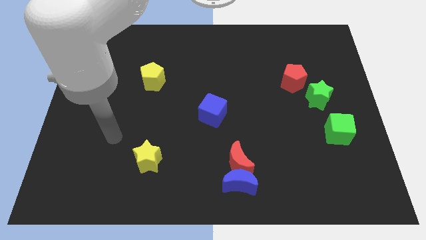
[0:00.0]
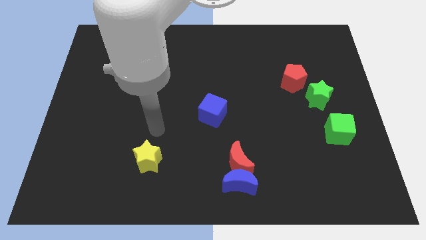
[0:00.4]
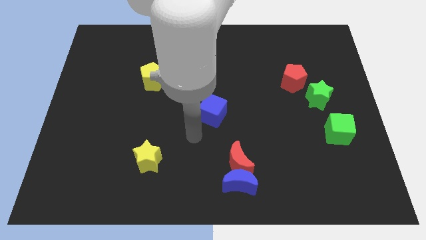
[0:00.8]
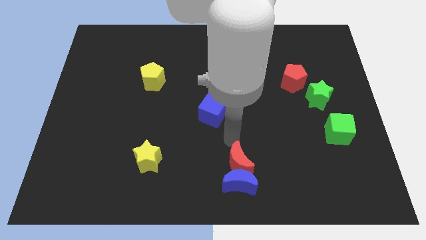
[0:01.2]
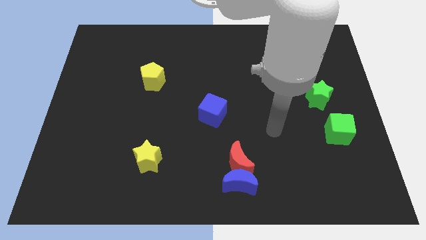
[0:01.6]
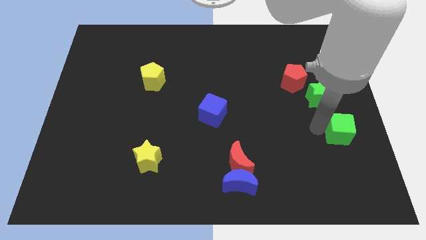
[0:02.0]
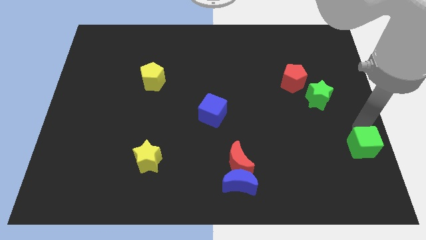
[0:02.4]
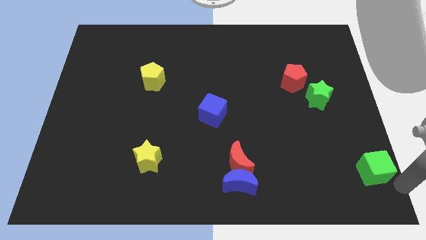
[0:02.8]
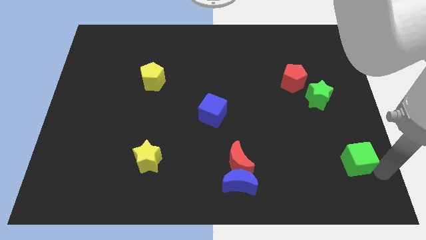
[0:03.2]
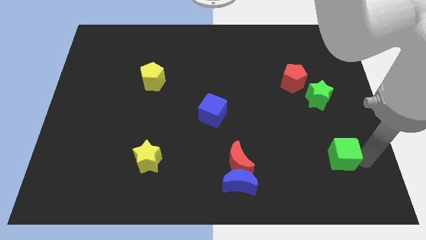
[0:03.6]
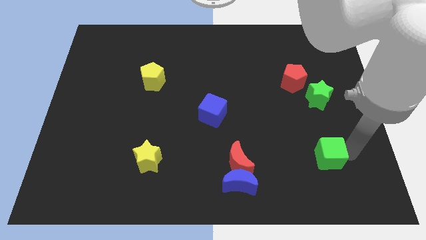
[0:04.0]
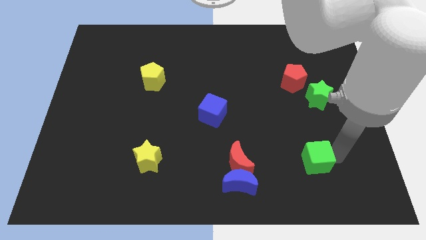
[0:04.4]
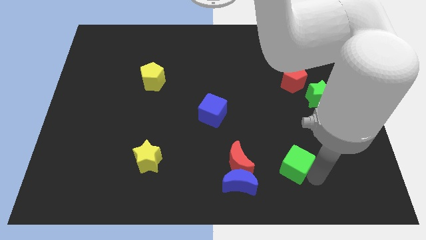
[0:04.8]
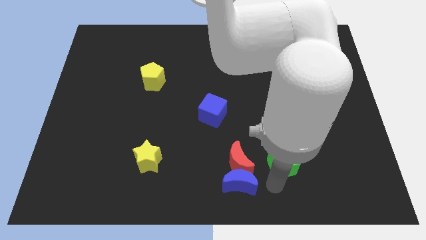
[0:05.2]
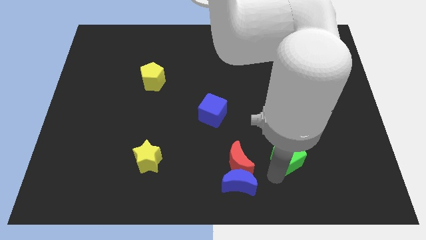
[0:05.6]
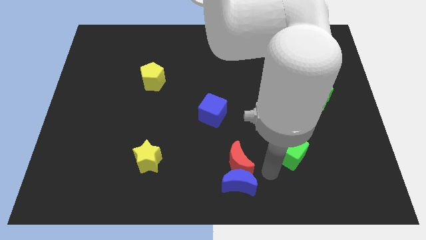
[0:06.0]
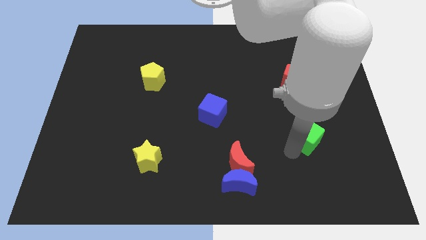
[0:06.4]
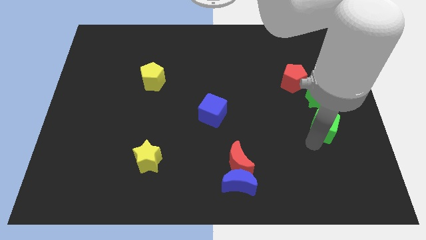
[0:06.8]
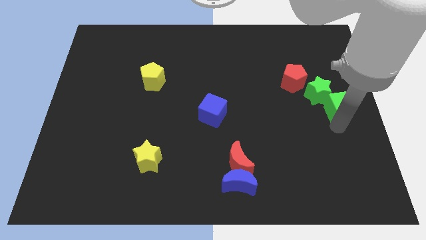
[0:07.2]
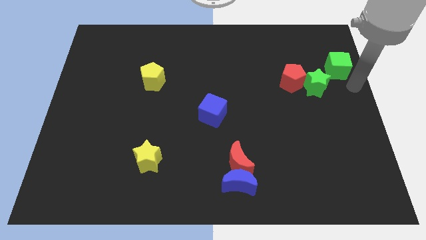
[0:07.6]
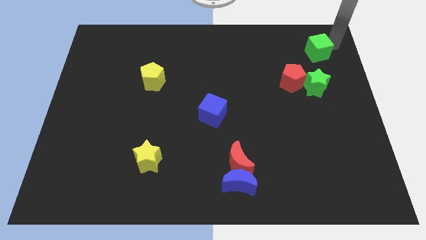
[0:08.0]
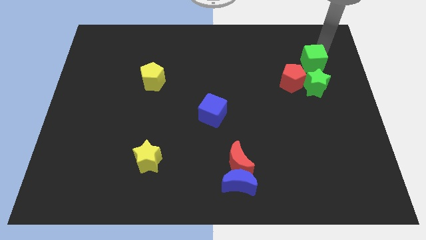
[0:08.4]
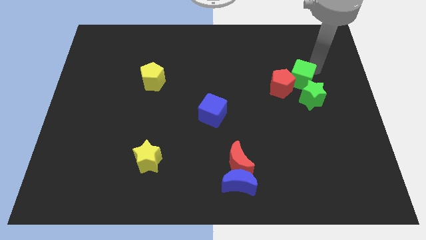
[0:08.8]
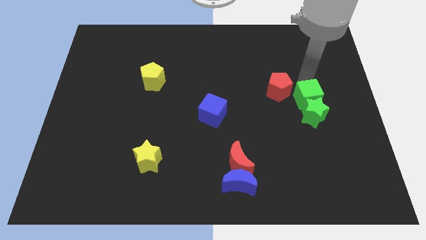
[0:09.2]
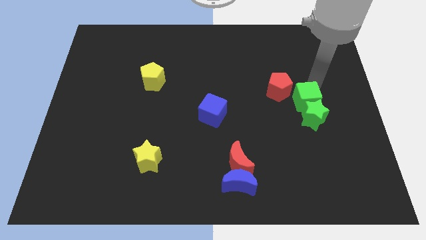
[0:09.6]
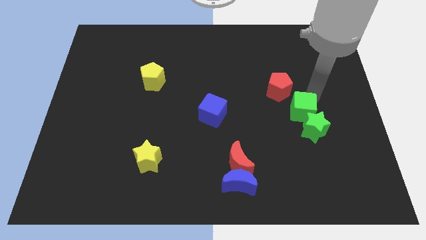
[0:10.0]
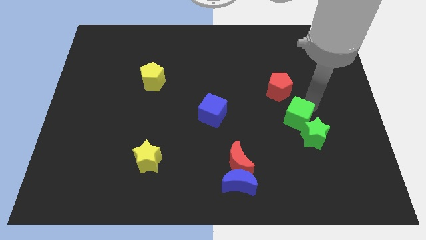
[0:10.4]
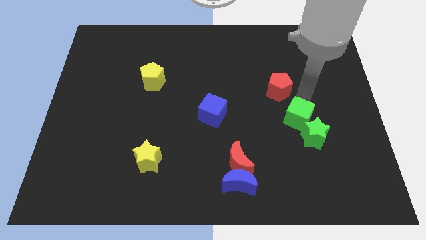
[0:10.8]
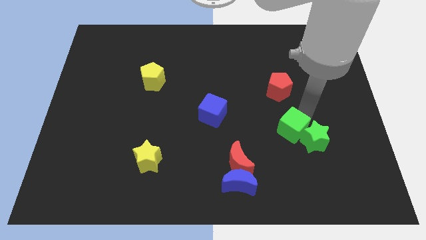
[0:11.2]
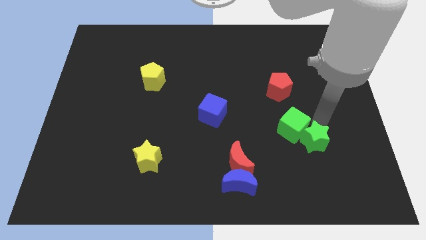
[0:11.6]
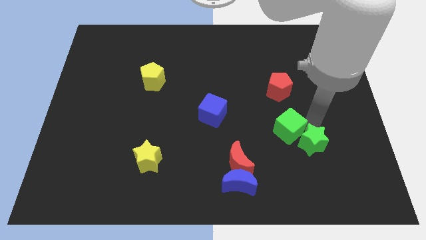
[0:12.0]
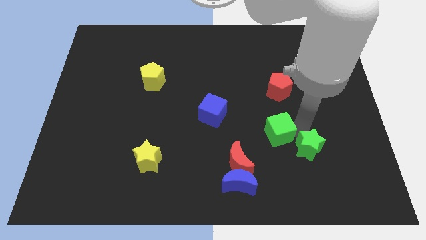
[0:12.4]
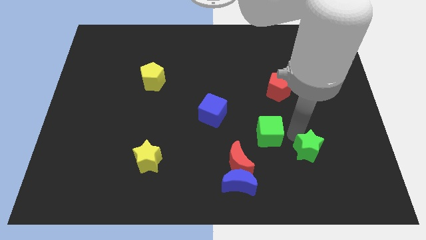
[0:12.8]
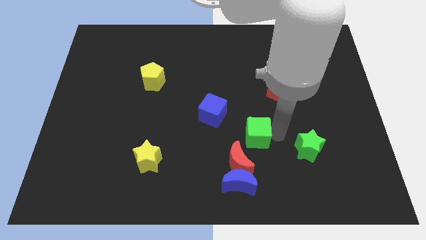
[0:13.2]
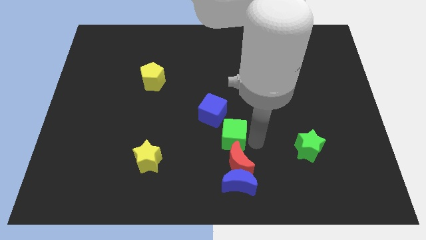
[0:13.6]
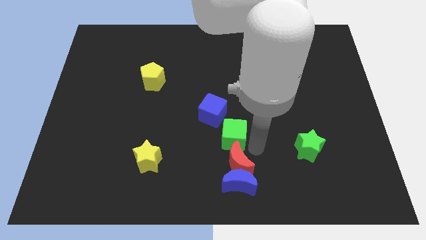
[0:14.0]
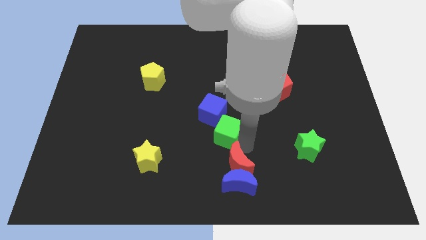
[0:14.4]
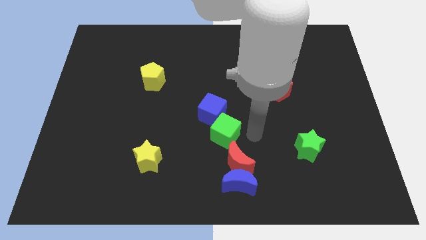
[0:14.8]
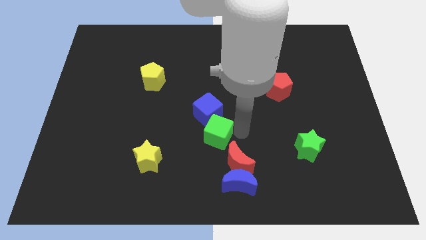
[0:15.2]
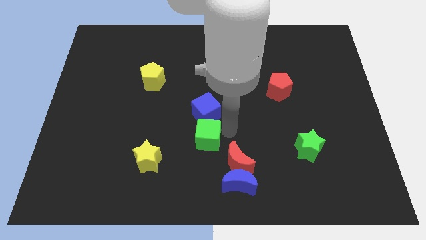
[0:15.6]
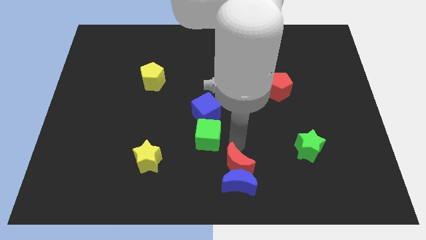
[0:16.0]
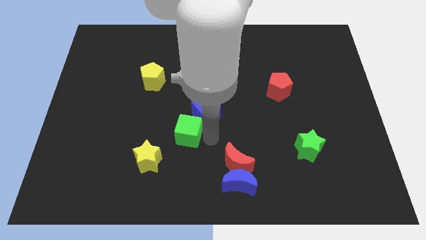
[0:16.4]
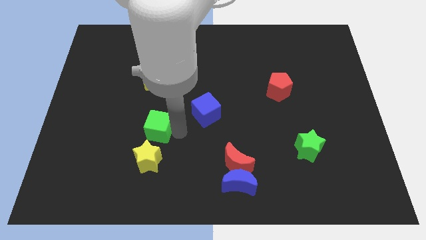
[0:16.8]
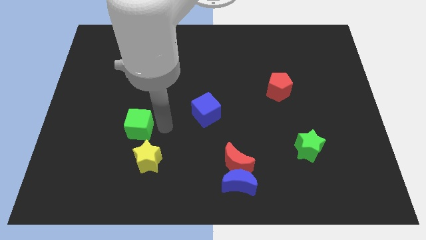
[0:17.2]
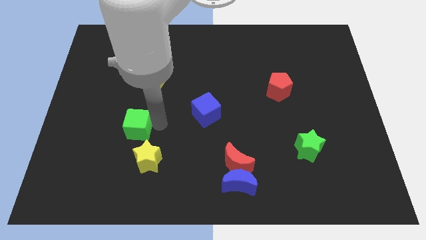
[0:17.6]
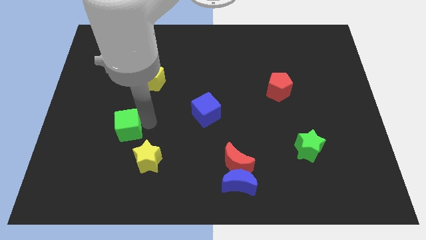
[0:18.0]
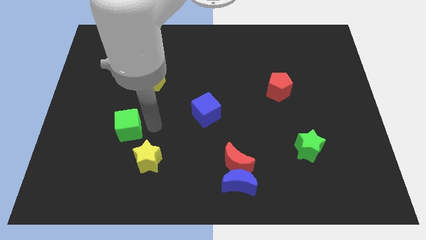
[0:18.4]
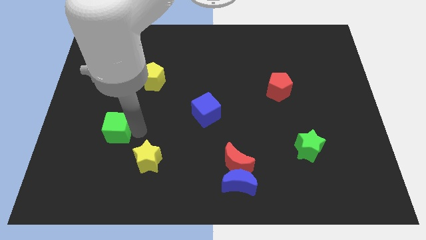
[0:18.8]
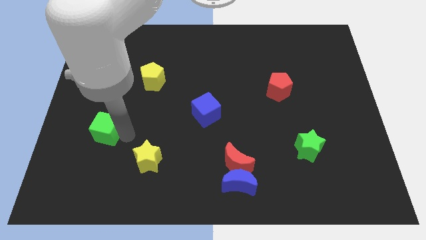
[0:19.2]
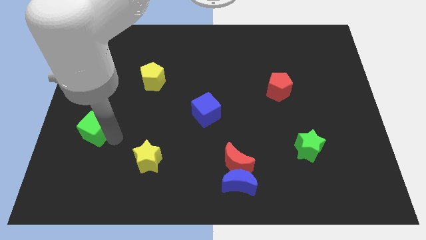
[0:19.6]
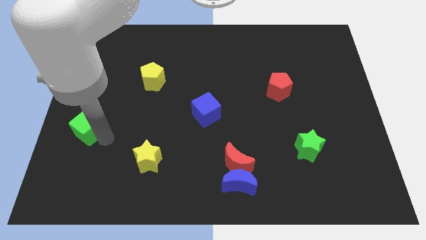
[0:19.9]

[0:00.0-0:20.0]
push the green cube to the left side

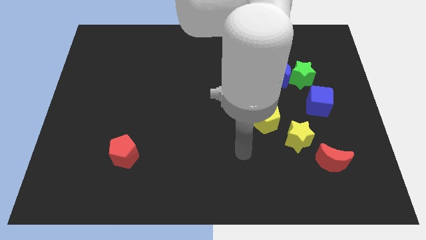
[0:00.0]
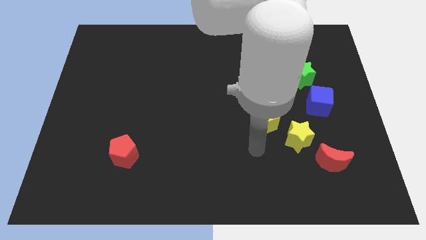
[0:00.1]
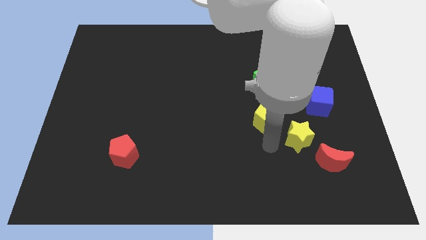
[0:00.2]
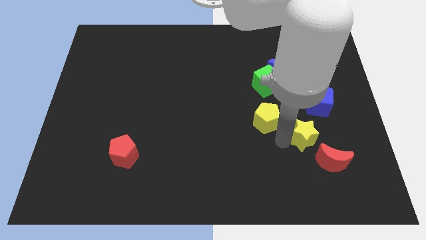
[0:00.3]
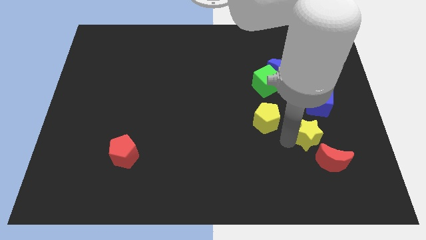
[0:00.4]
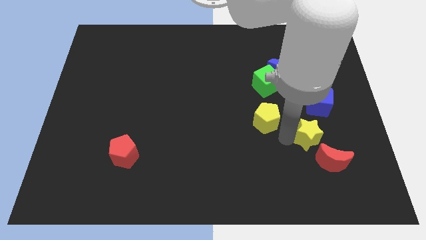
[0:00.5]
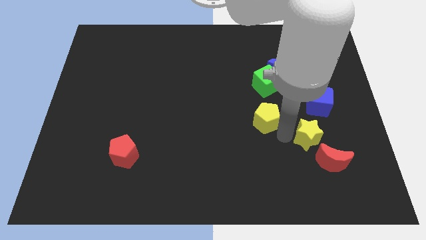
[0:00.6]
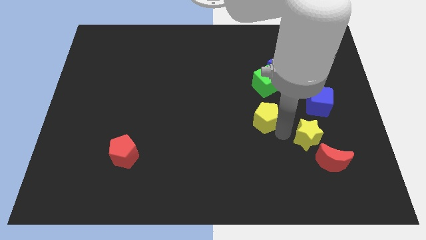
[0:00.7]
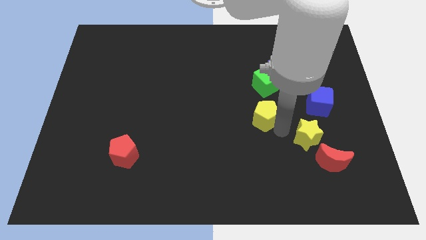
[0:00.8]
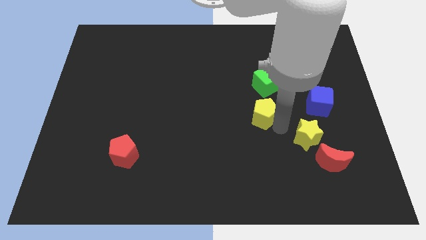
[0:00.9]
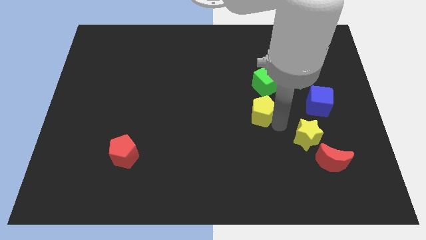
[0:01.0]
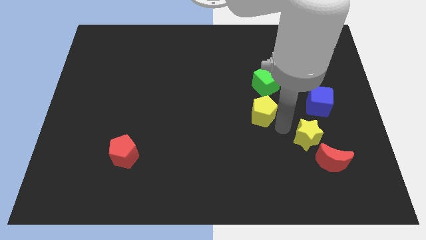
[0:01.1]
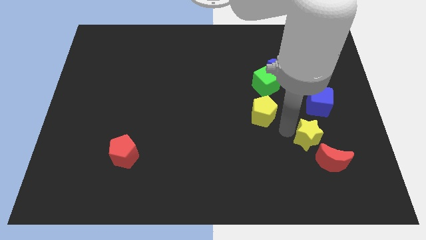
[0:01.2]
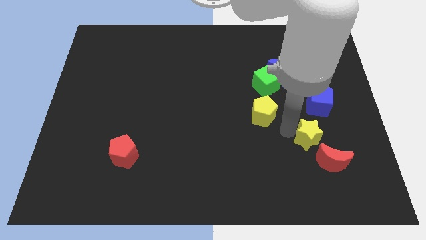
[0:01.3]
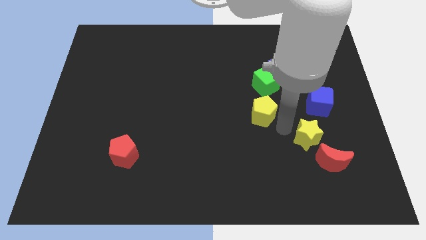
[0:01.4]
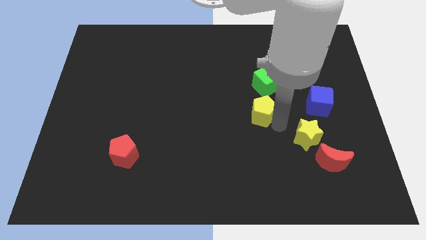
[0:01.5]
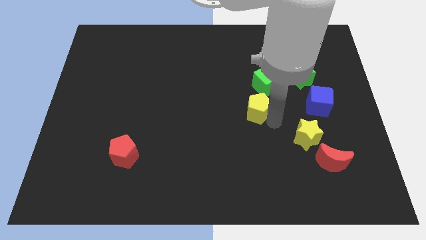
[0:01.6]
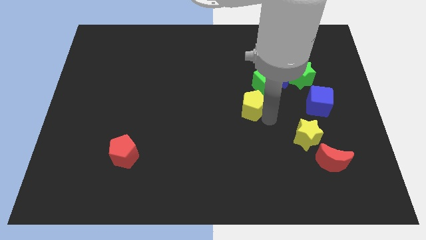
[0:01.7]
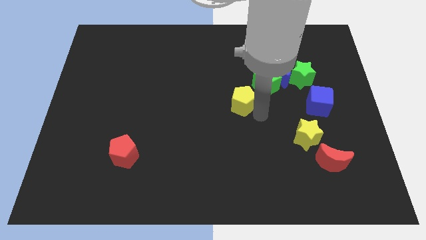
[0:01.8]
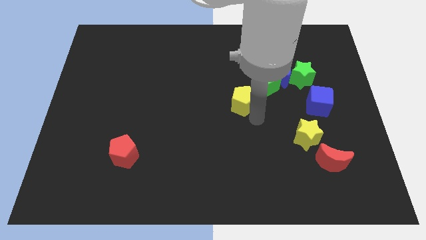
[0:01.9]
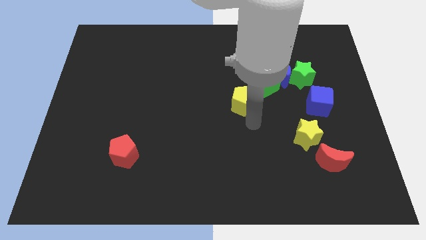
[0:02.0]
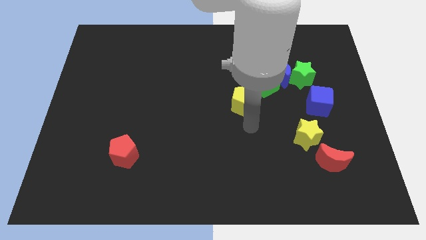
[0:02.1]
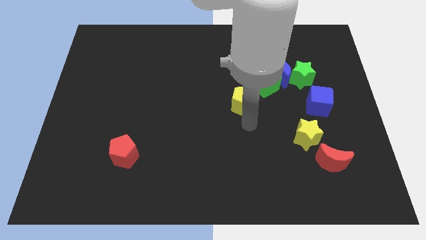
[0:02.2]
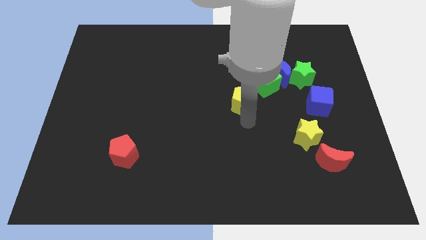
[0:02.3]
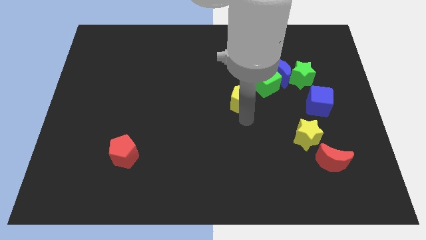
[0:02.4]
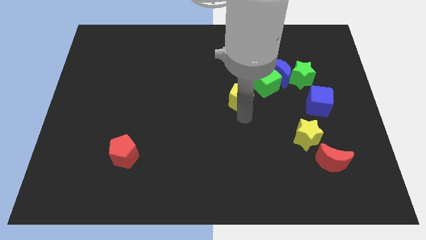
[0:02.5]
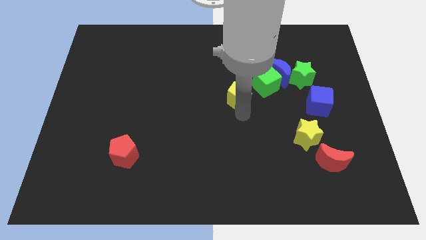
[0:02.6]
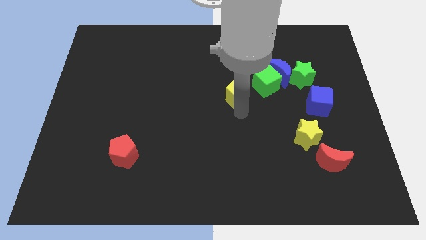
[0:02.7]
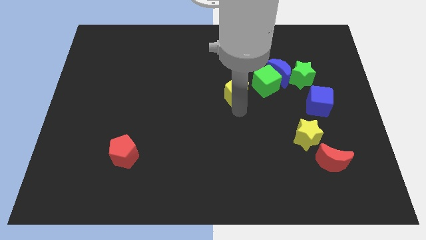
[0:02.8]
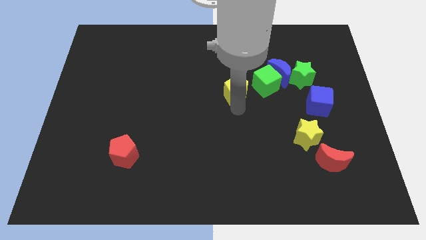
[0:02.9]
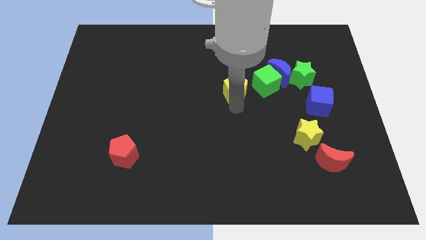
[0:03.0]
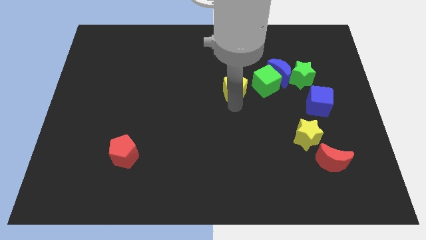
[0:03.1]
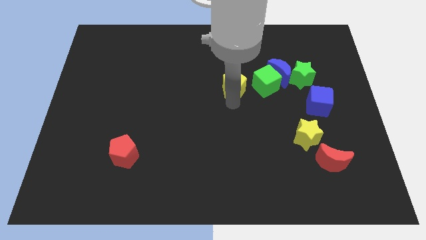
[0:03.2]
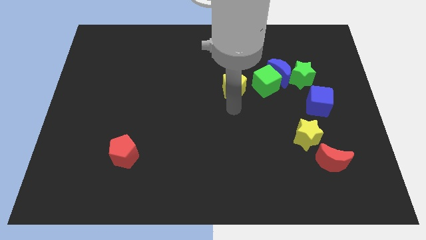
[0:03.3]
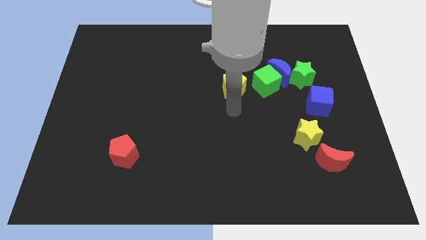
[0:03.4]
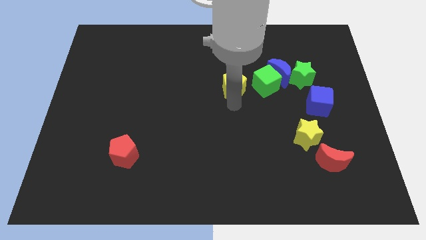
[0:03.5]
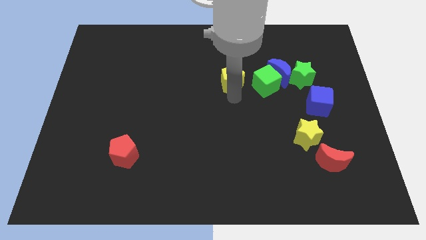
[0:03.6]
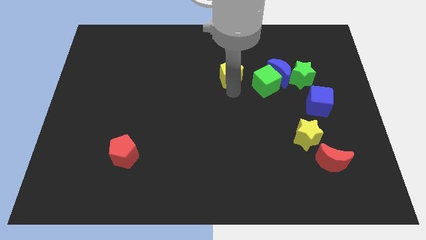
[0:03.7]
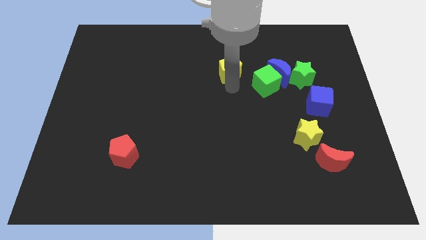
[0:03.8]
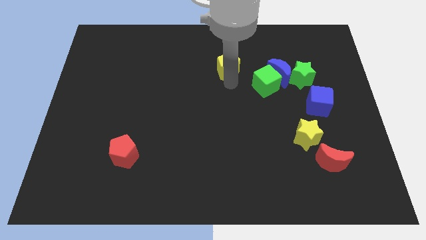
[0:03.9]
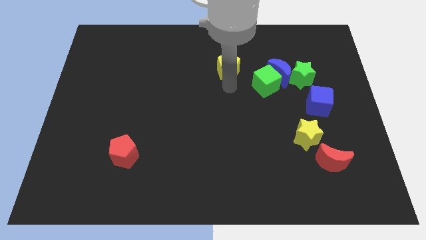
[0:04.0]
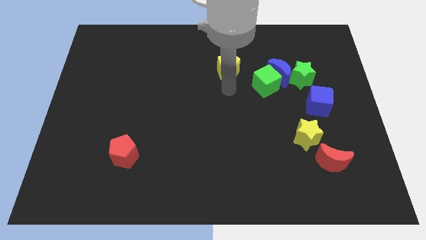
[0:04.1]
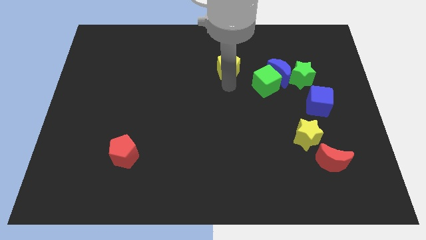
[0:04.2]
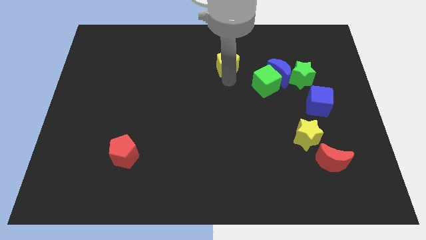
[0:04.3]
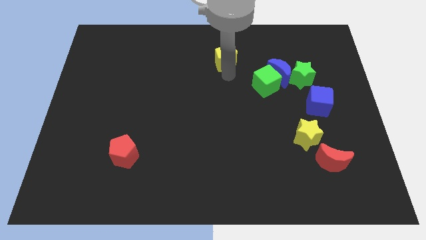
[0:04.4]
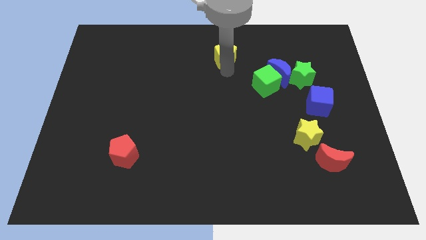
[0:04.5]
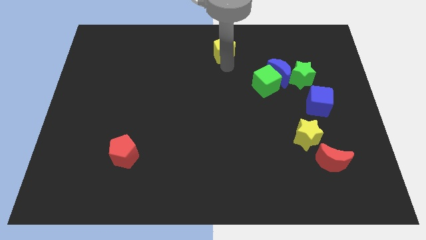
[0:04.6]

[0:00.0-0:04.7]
put the yellow pentagon to the top
